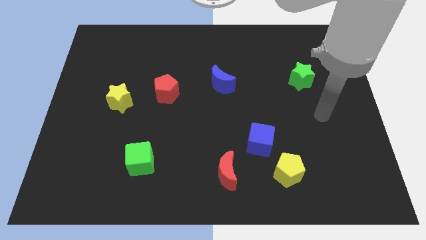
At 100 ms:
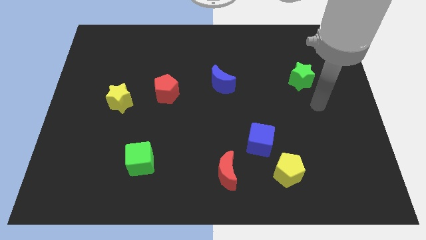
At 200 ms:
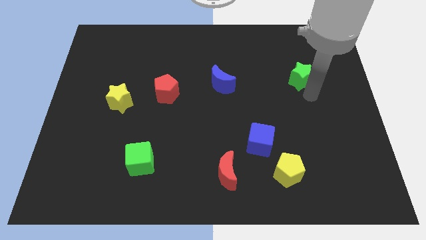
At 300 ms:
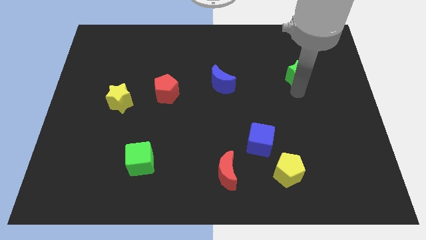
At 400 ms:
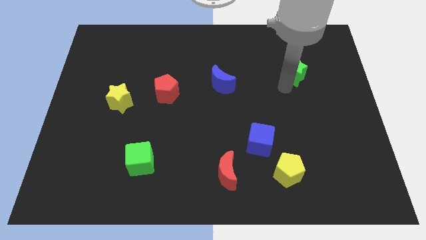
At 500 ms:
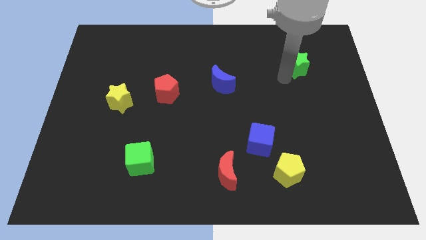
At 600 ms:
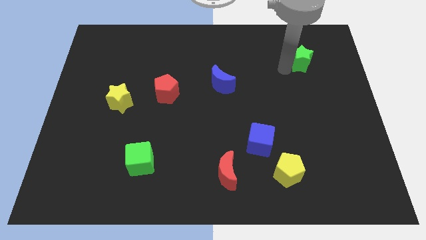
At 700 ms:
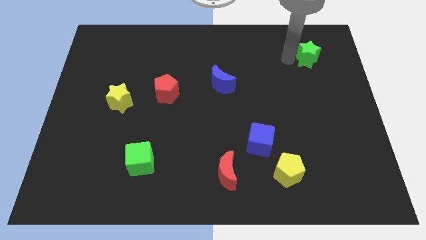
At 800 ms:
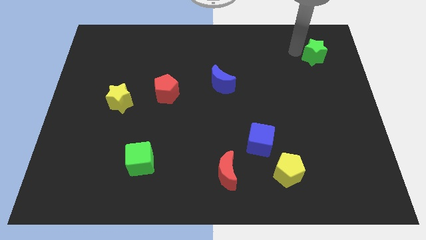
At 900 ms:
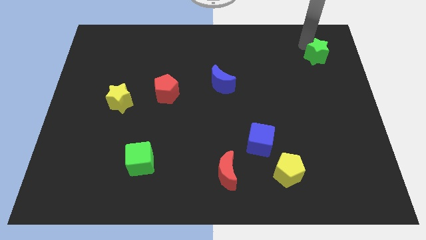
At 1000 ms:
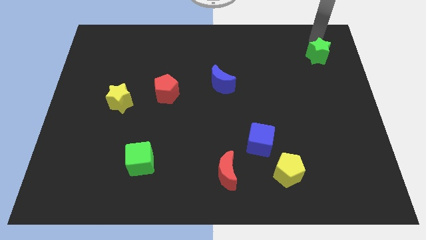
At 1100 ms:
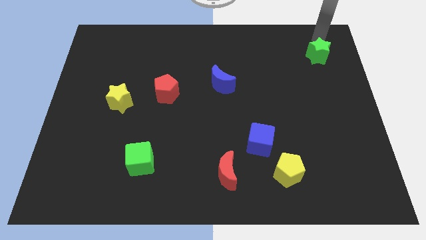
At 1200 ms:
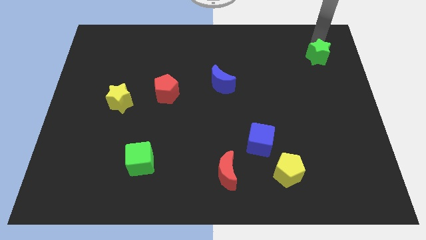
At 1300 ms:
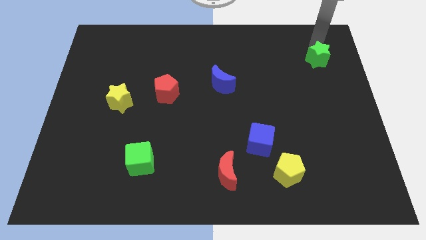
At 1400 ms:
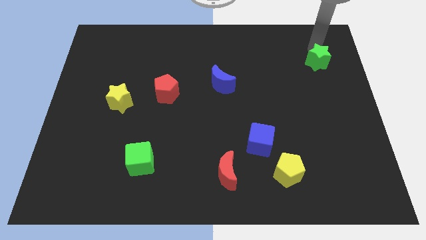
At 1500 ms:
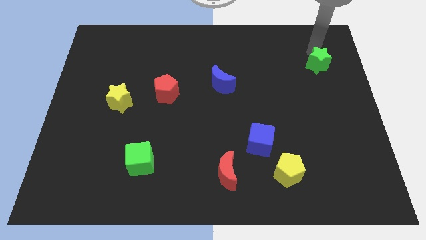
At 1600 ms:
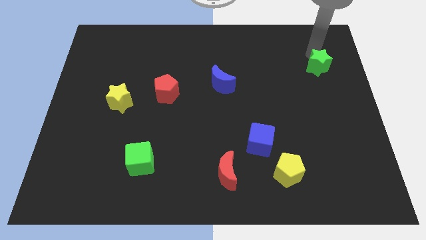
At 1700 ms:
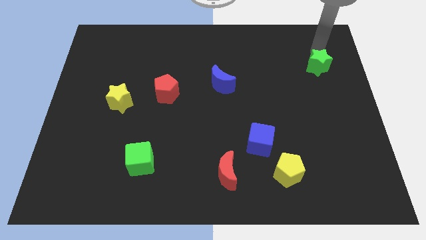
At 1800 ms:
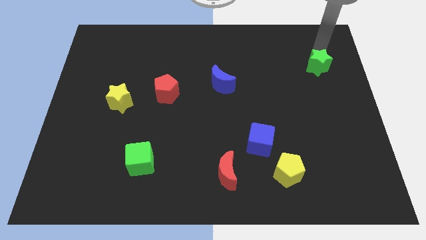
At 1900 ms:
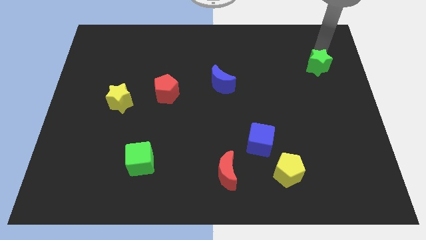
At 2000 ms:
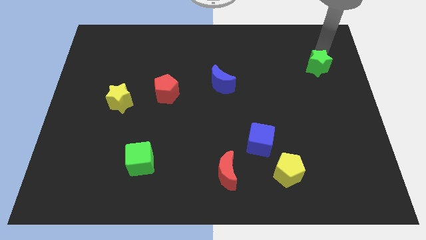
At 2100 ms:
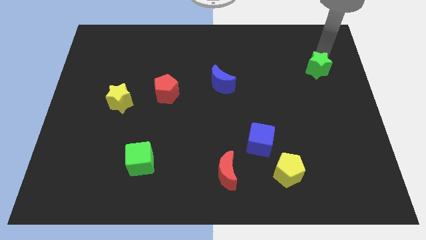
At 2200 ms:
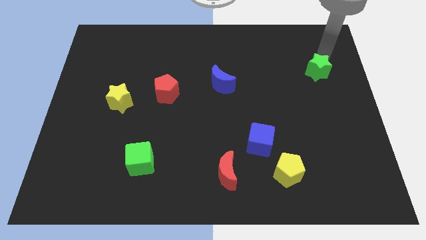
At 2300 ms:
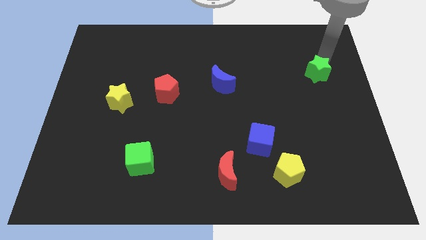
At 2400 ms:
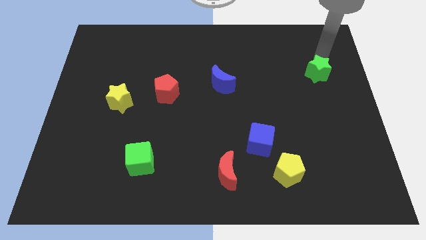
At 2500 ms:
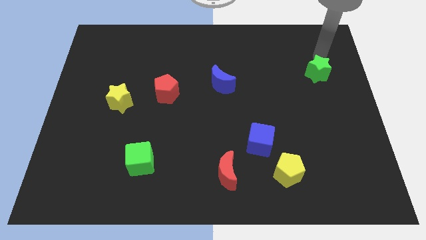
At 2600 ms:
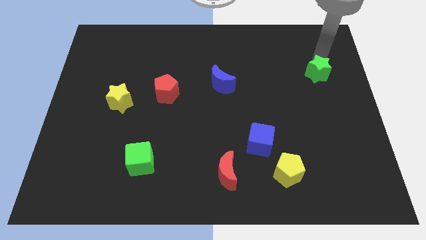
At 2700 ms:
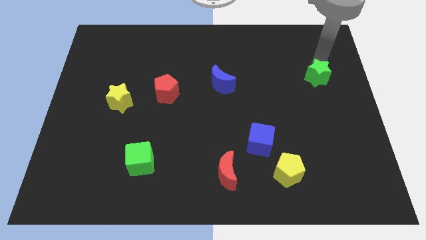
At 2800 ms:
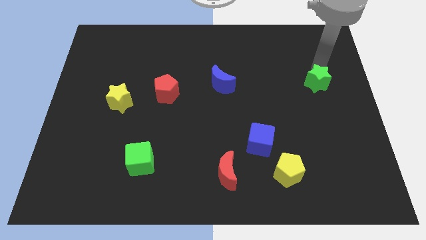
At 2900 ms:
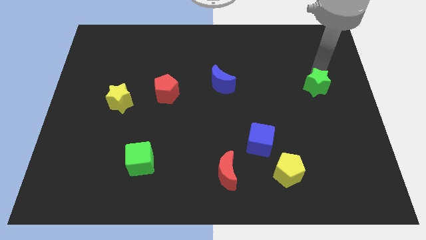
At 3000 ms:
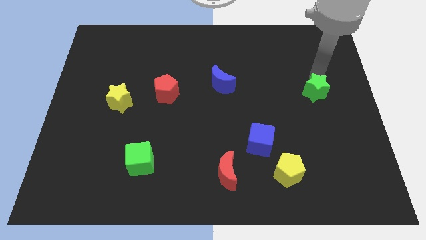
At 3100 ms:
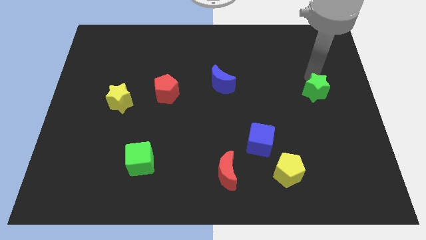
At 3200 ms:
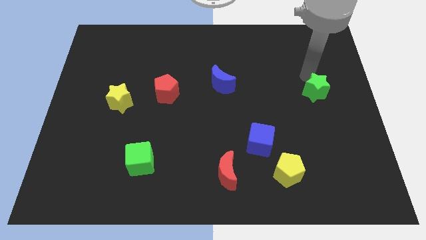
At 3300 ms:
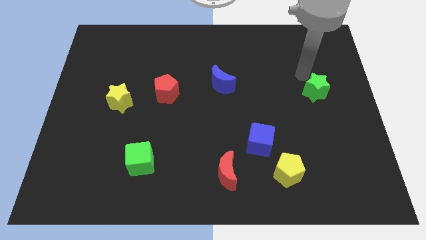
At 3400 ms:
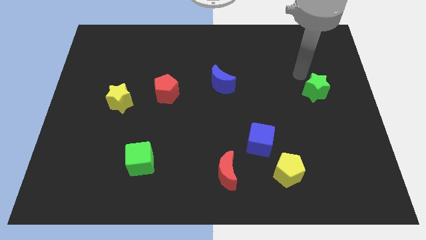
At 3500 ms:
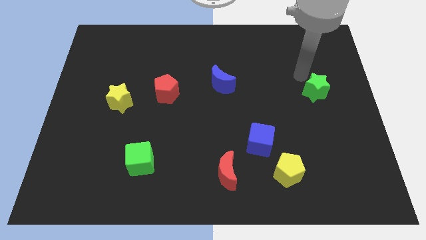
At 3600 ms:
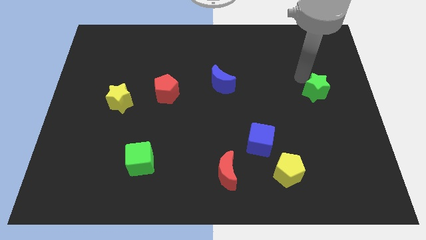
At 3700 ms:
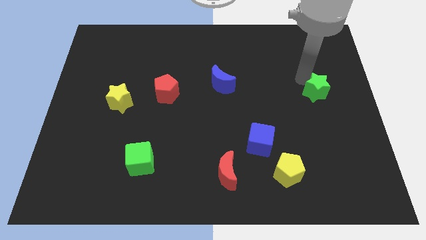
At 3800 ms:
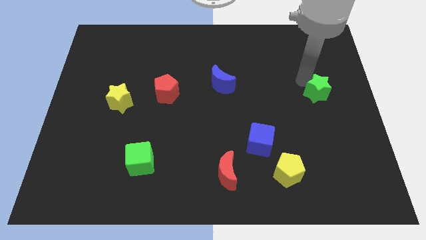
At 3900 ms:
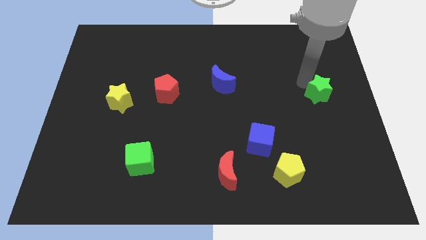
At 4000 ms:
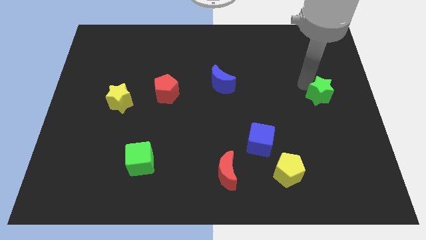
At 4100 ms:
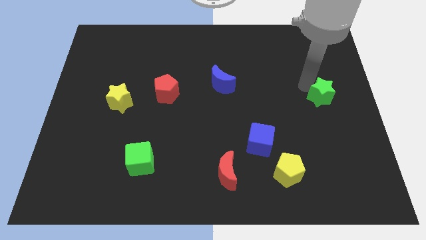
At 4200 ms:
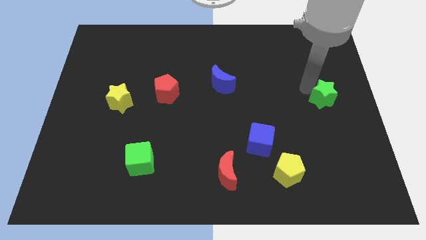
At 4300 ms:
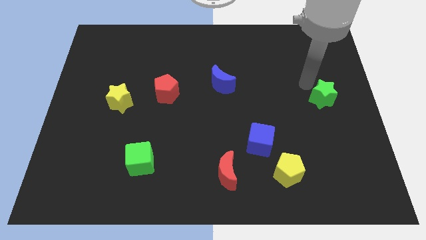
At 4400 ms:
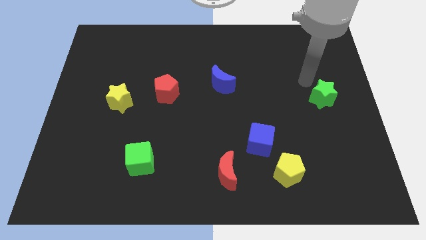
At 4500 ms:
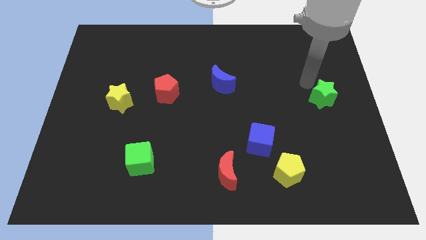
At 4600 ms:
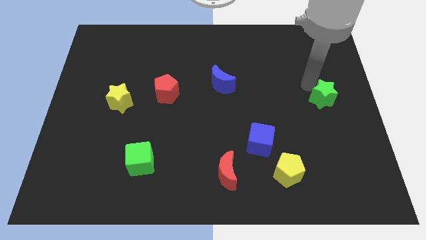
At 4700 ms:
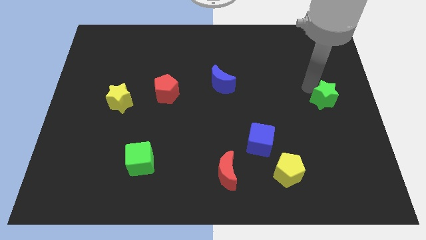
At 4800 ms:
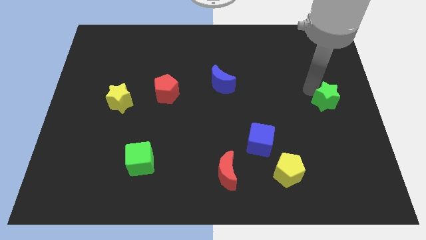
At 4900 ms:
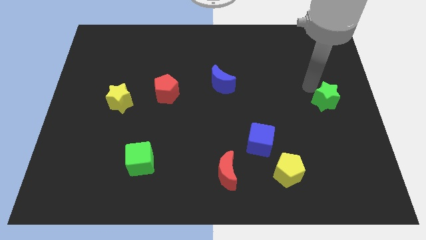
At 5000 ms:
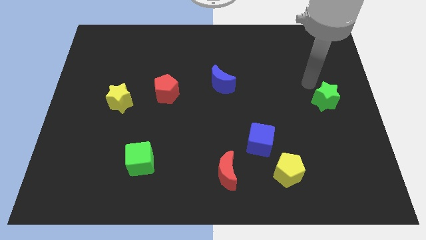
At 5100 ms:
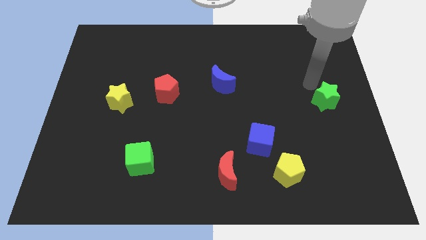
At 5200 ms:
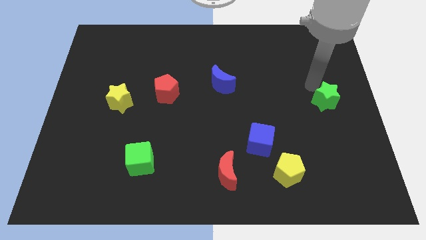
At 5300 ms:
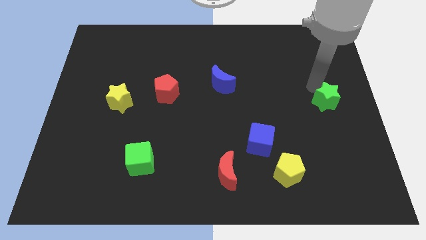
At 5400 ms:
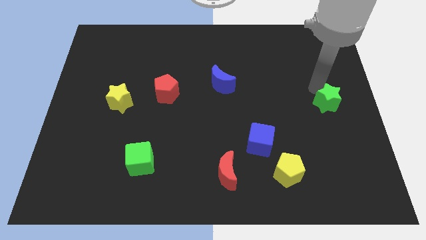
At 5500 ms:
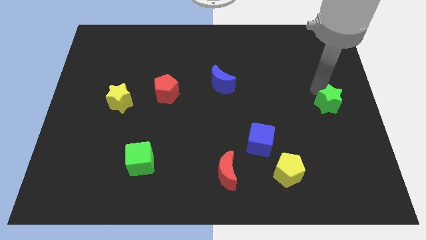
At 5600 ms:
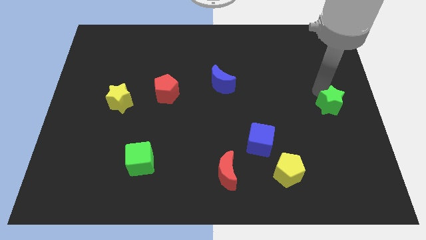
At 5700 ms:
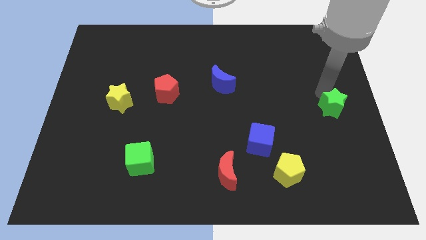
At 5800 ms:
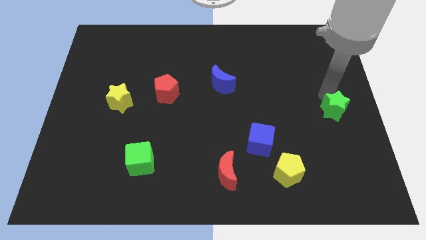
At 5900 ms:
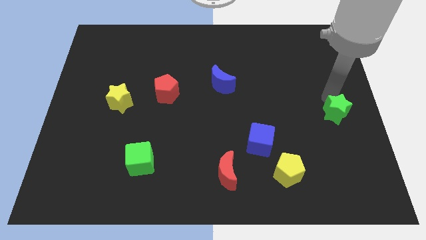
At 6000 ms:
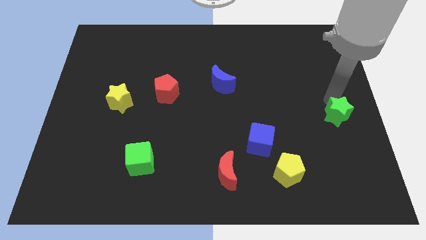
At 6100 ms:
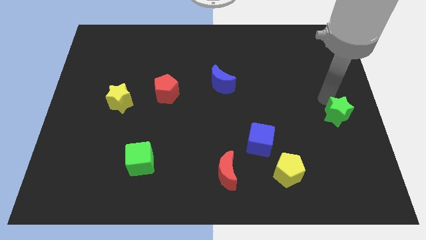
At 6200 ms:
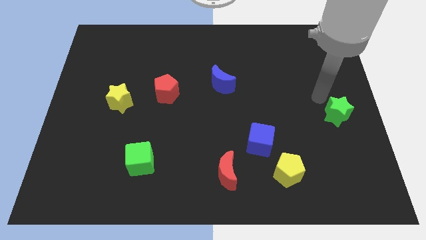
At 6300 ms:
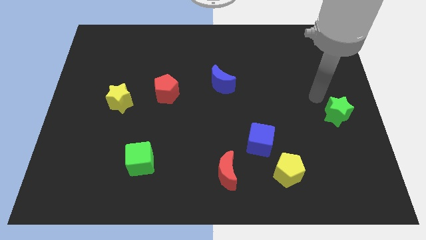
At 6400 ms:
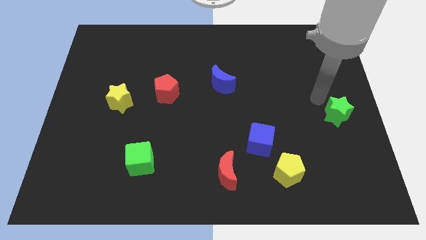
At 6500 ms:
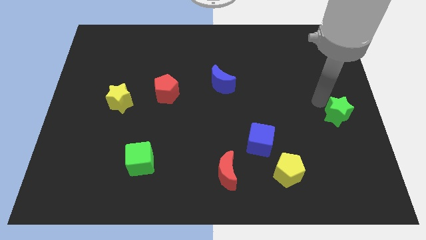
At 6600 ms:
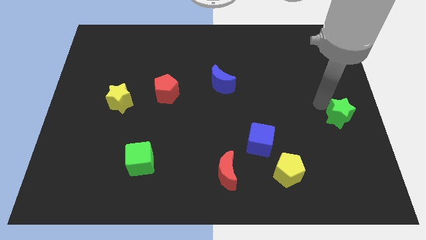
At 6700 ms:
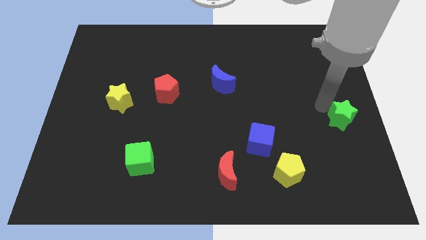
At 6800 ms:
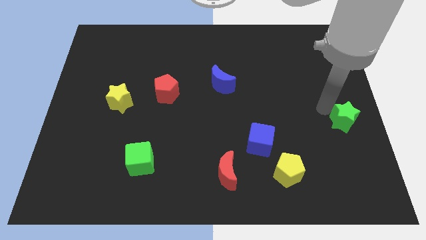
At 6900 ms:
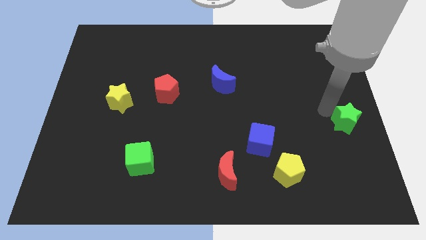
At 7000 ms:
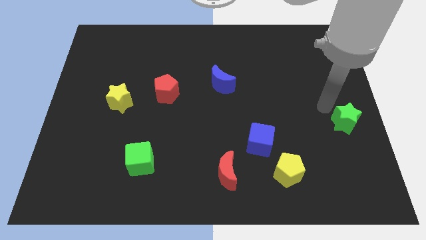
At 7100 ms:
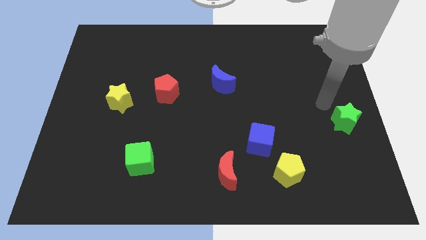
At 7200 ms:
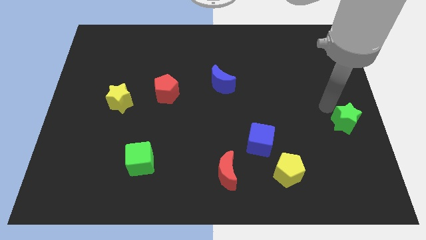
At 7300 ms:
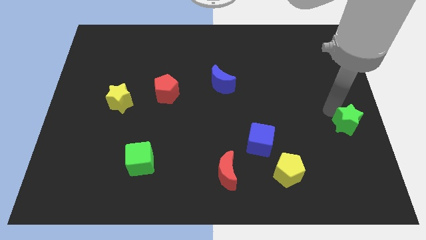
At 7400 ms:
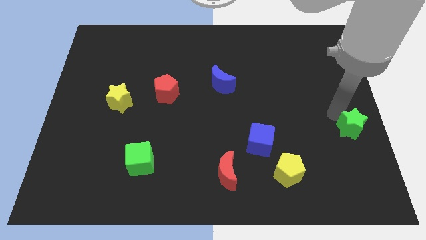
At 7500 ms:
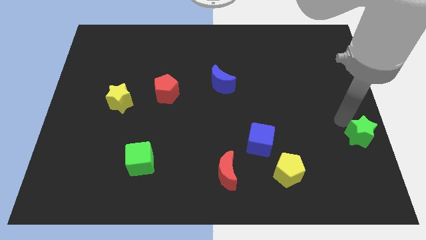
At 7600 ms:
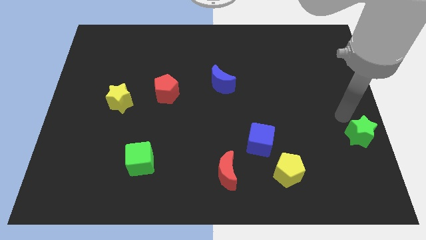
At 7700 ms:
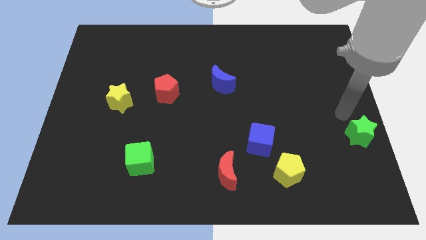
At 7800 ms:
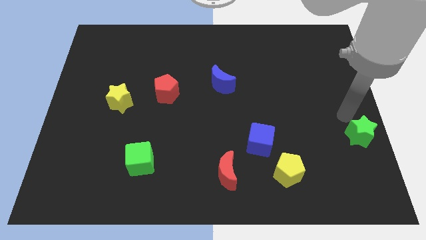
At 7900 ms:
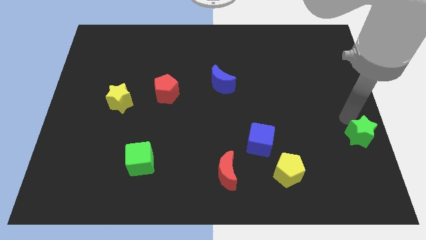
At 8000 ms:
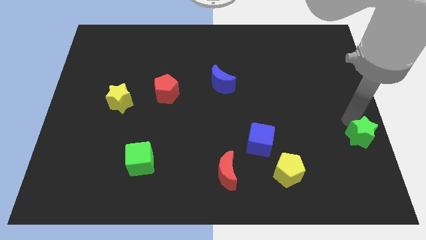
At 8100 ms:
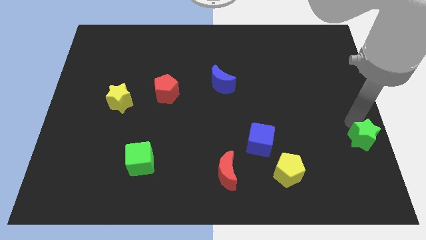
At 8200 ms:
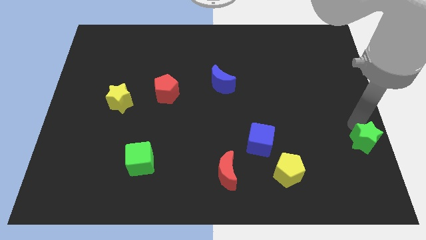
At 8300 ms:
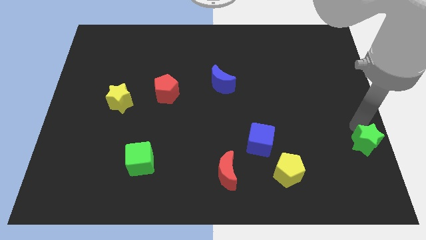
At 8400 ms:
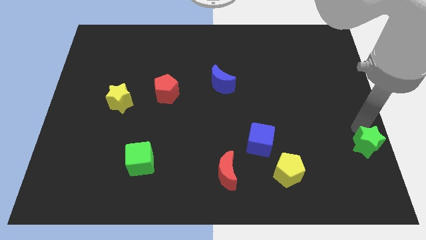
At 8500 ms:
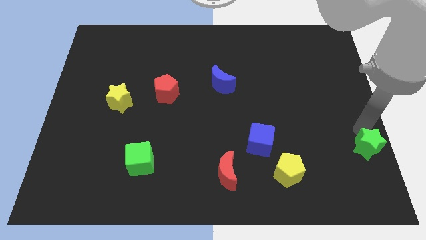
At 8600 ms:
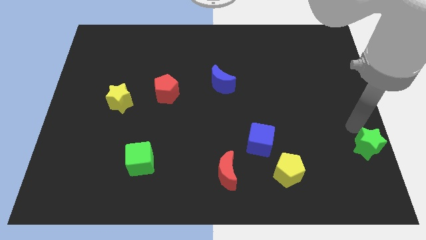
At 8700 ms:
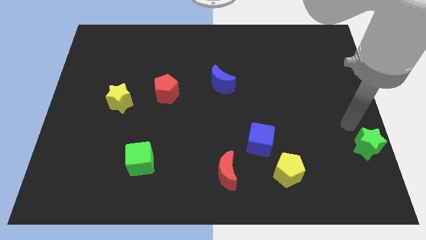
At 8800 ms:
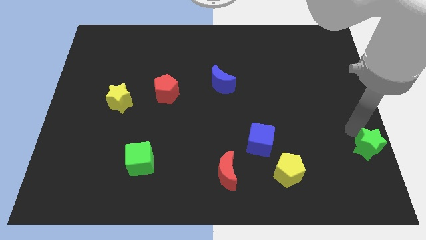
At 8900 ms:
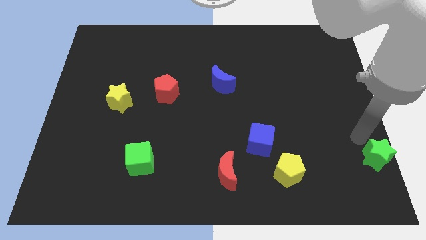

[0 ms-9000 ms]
put the green star to the bottom right
